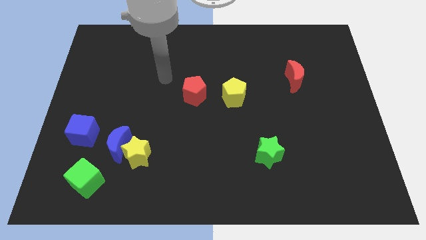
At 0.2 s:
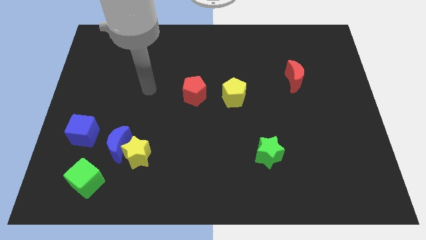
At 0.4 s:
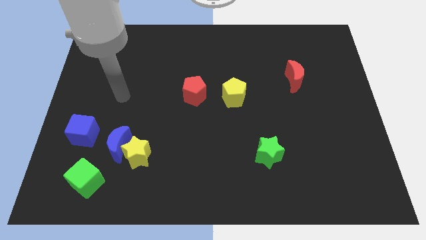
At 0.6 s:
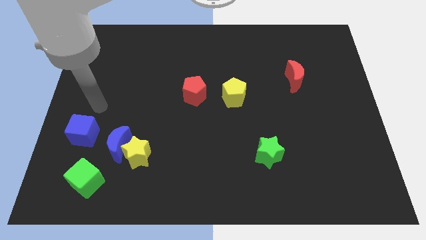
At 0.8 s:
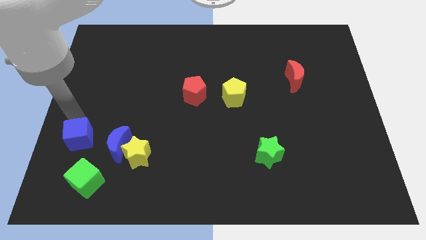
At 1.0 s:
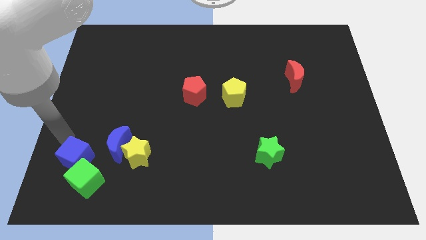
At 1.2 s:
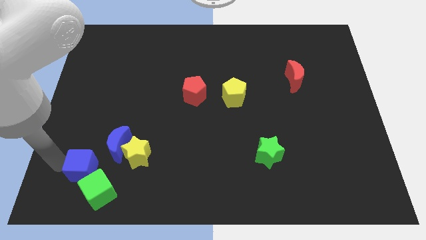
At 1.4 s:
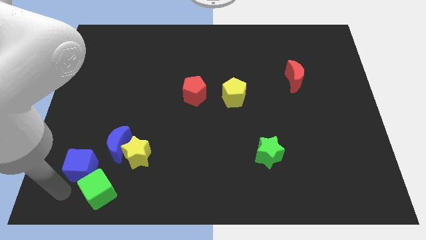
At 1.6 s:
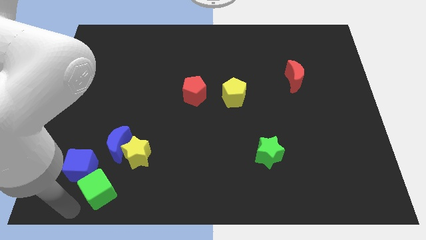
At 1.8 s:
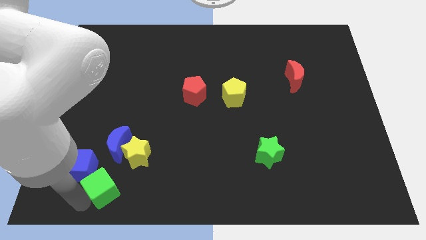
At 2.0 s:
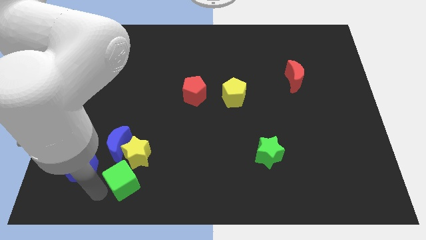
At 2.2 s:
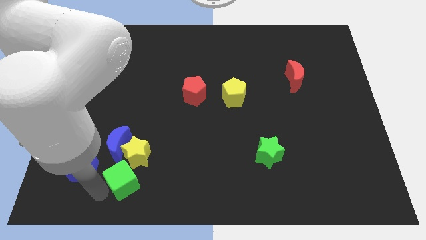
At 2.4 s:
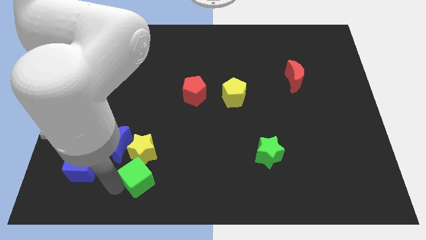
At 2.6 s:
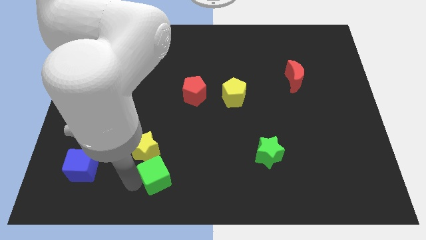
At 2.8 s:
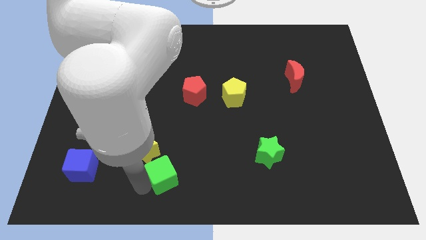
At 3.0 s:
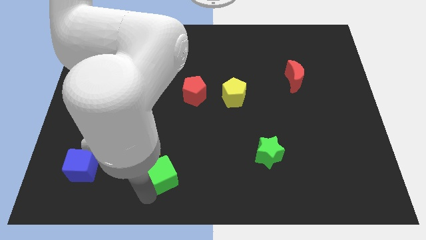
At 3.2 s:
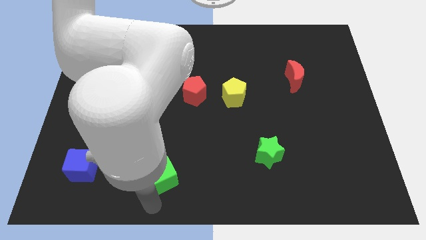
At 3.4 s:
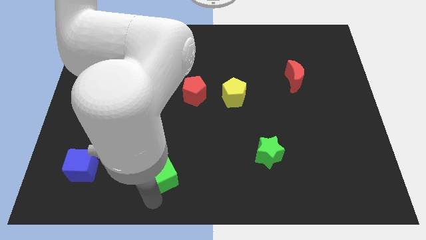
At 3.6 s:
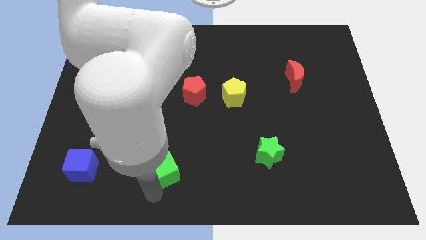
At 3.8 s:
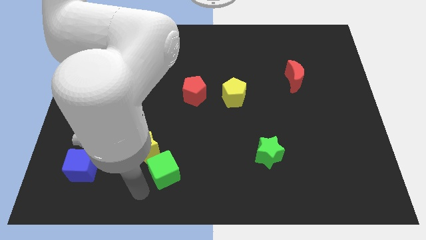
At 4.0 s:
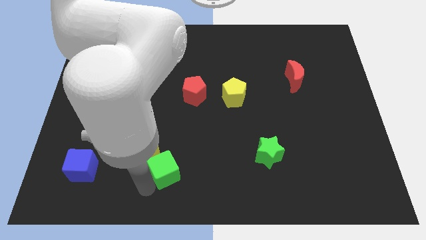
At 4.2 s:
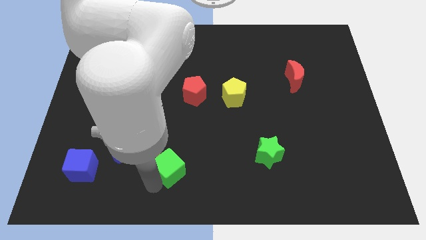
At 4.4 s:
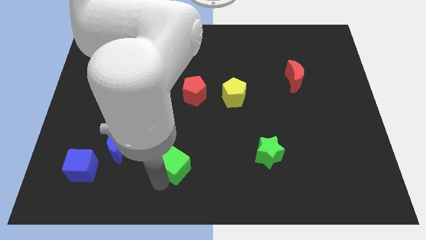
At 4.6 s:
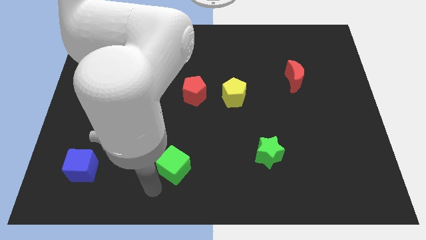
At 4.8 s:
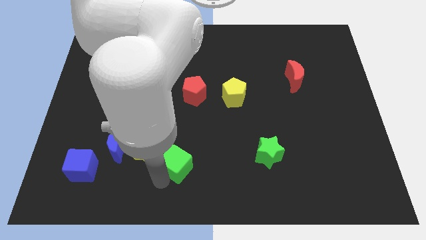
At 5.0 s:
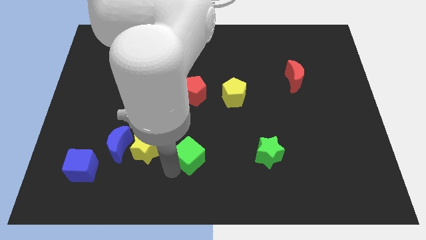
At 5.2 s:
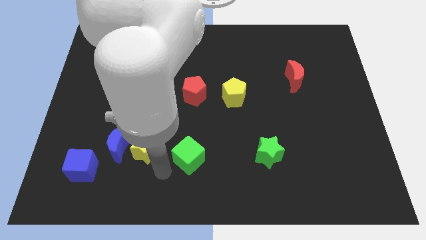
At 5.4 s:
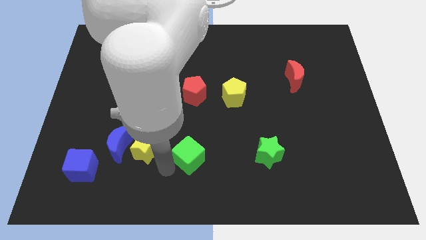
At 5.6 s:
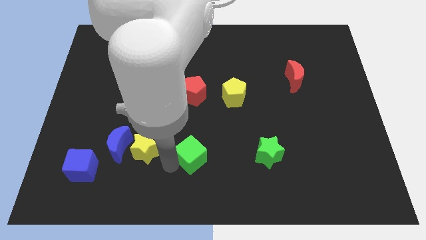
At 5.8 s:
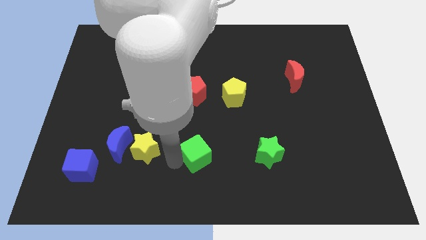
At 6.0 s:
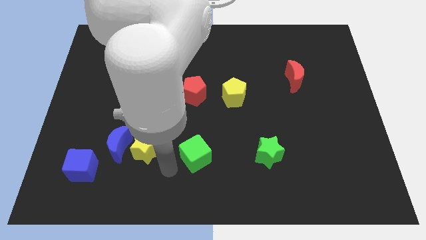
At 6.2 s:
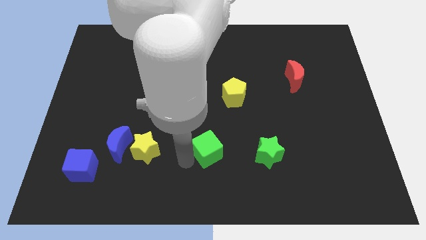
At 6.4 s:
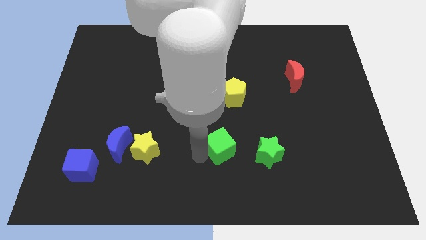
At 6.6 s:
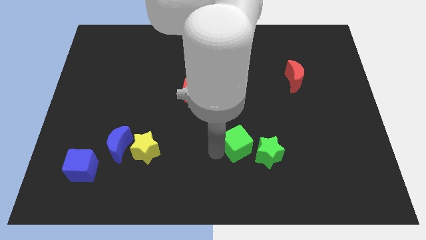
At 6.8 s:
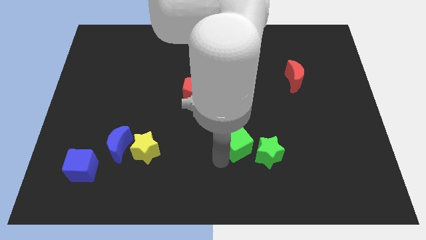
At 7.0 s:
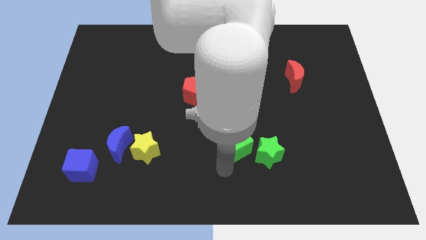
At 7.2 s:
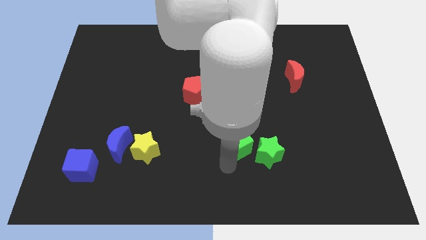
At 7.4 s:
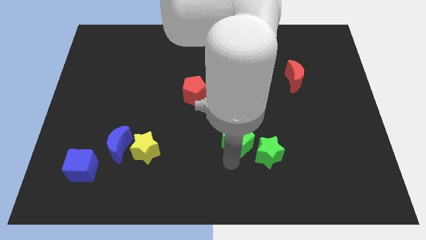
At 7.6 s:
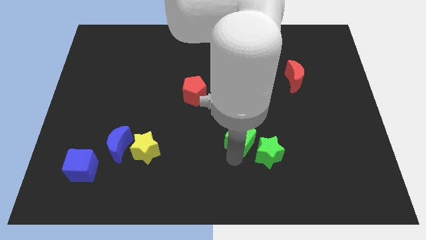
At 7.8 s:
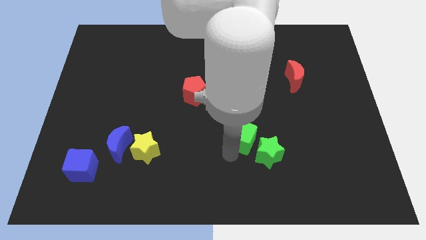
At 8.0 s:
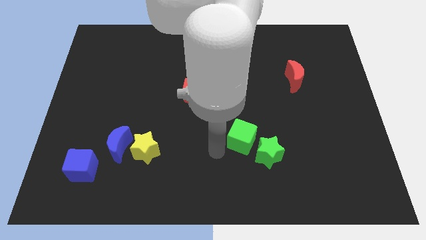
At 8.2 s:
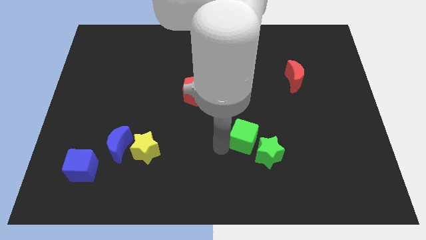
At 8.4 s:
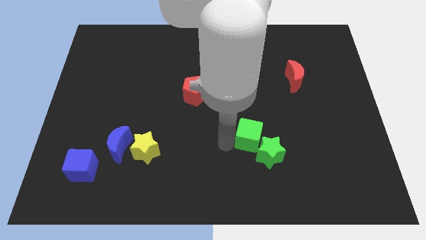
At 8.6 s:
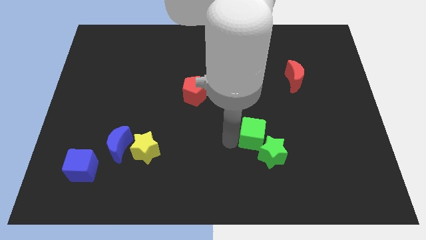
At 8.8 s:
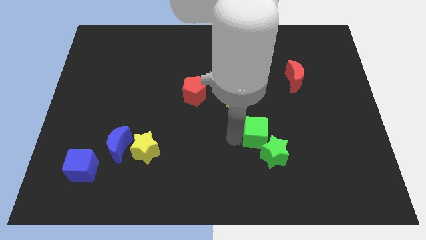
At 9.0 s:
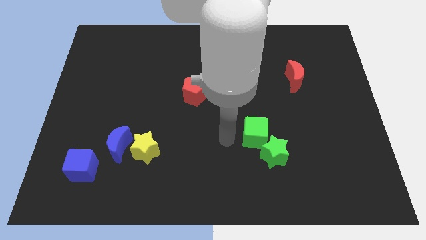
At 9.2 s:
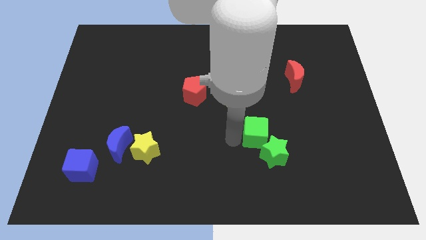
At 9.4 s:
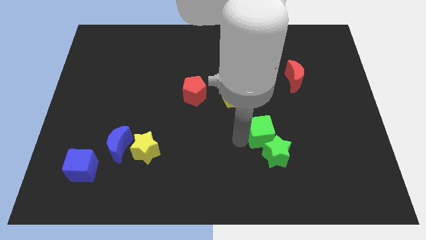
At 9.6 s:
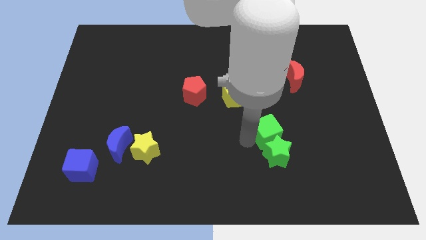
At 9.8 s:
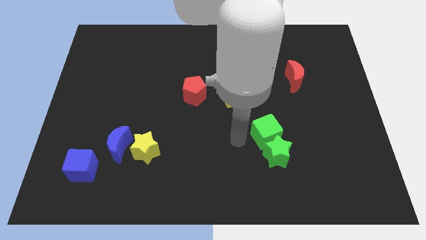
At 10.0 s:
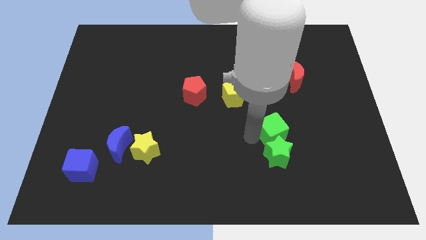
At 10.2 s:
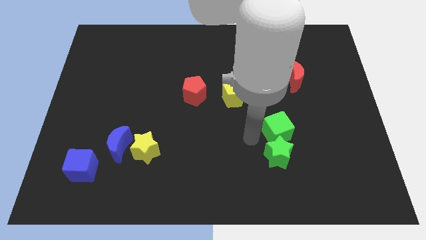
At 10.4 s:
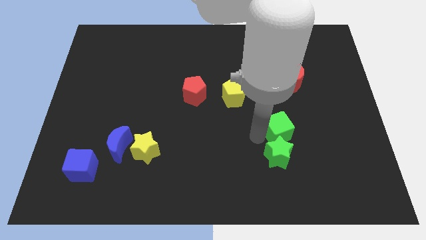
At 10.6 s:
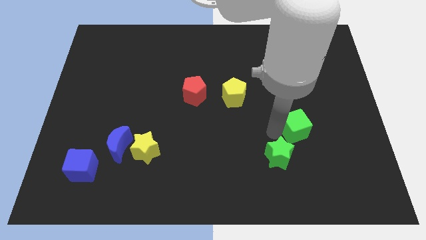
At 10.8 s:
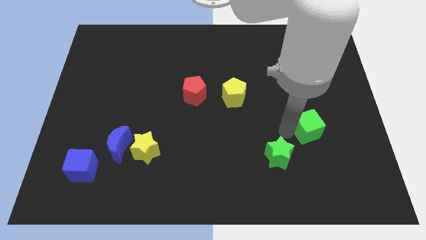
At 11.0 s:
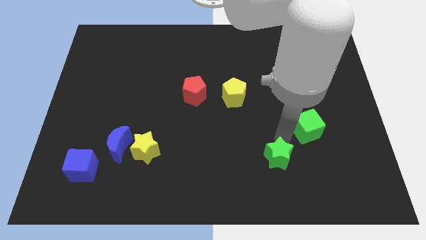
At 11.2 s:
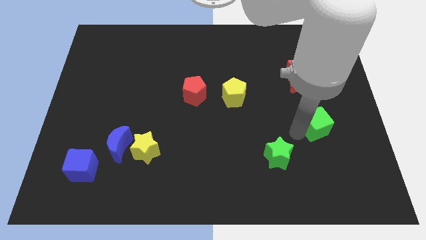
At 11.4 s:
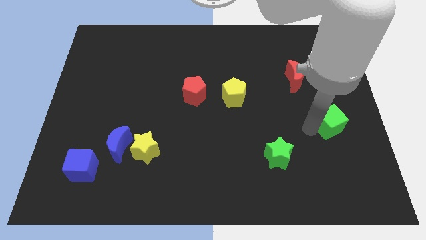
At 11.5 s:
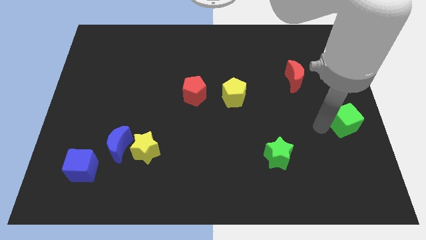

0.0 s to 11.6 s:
slide the green cube to the right side of the board

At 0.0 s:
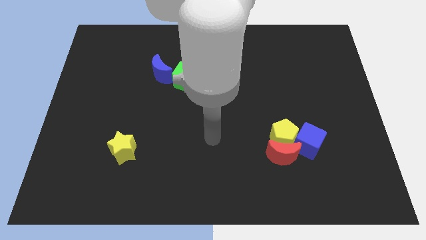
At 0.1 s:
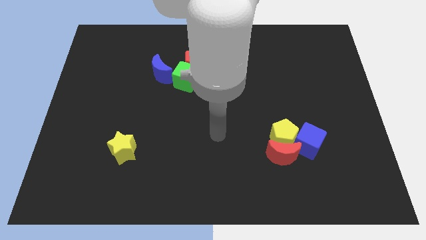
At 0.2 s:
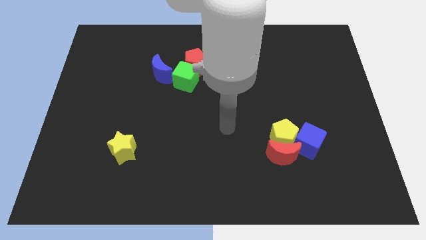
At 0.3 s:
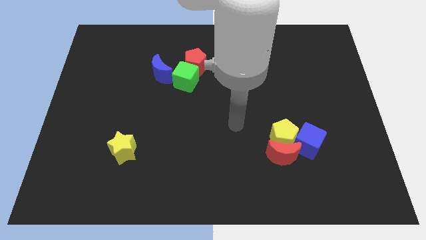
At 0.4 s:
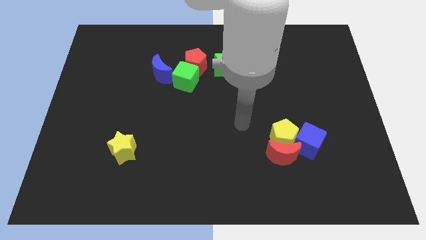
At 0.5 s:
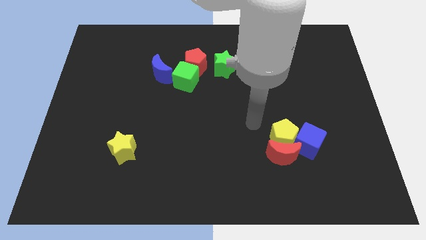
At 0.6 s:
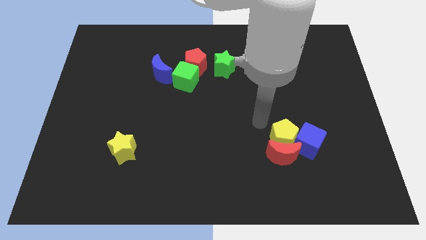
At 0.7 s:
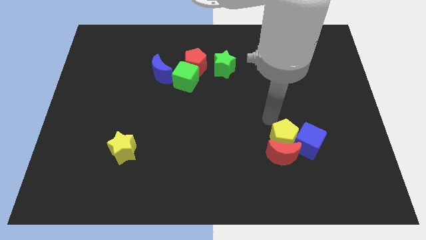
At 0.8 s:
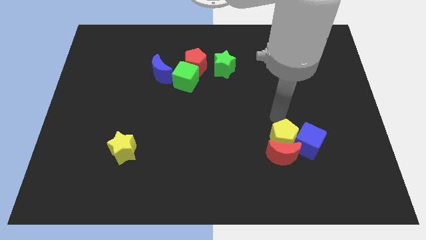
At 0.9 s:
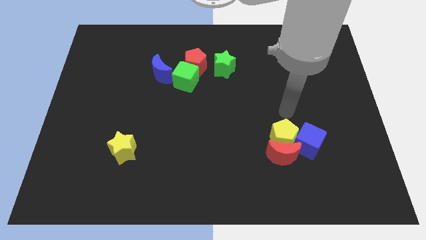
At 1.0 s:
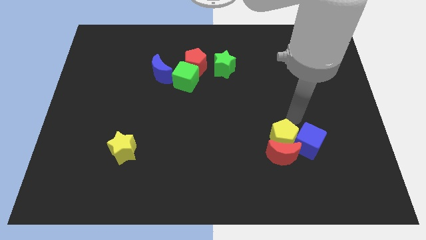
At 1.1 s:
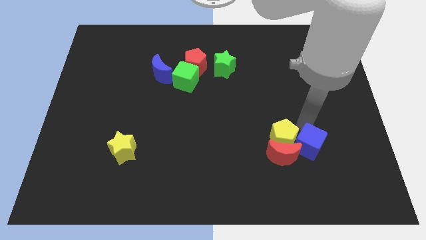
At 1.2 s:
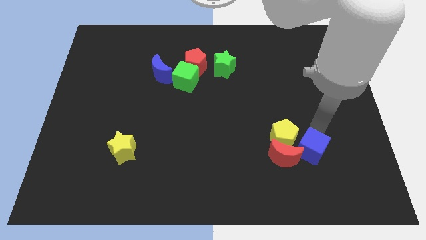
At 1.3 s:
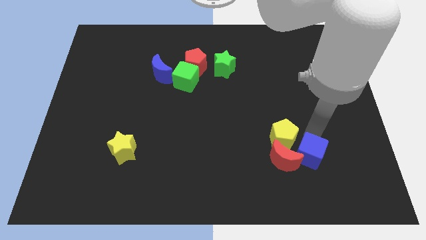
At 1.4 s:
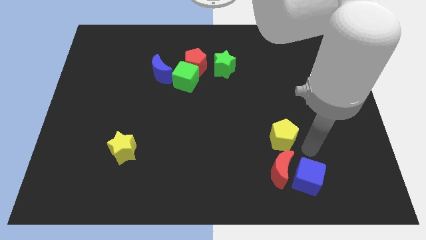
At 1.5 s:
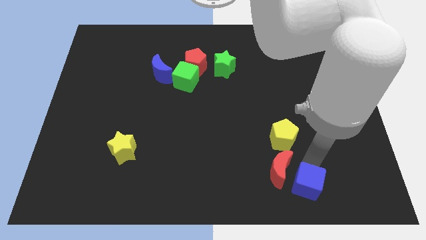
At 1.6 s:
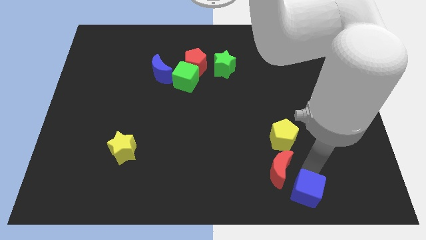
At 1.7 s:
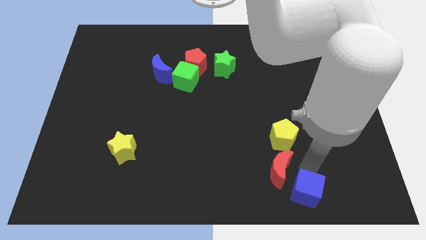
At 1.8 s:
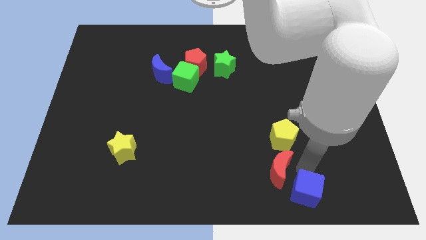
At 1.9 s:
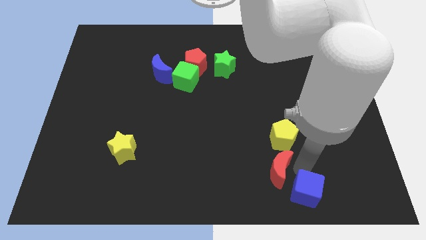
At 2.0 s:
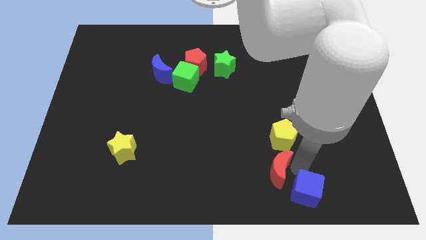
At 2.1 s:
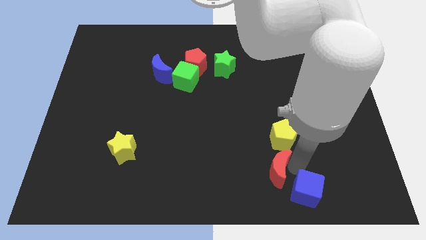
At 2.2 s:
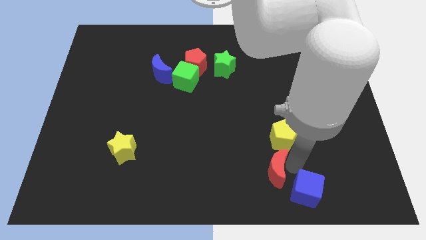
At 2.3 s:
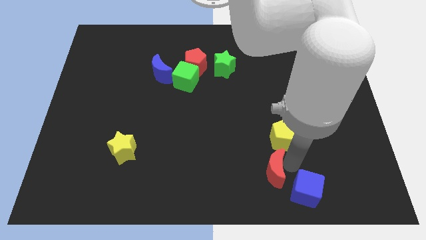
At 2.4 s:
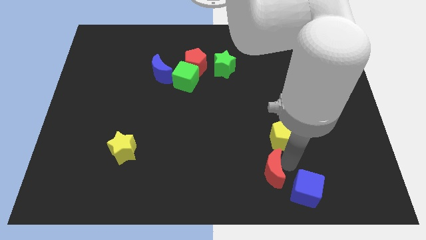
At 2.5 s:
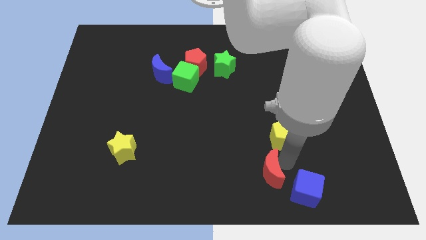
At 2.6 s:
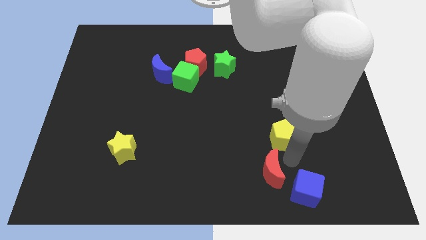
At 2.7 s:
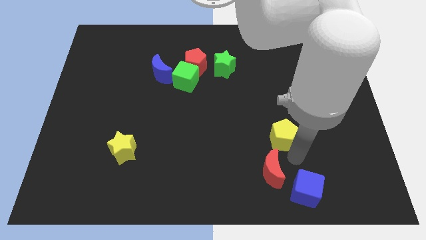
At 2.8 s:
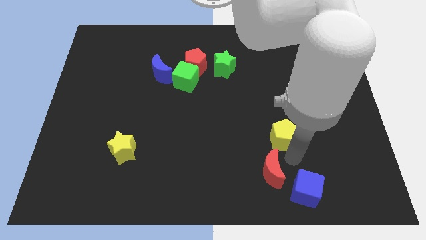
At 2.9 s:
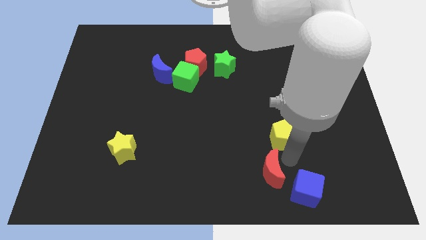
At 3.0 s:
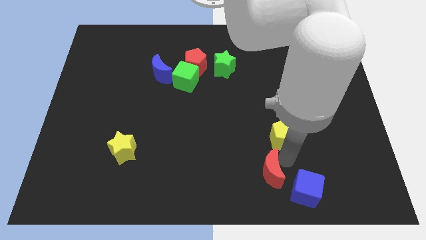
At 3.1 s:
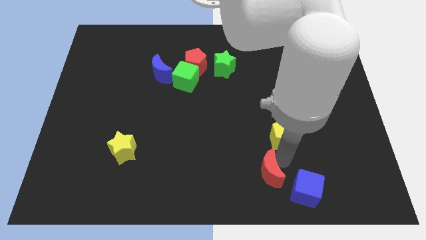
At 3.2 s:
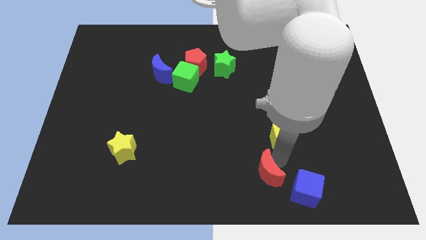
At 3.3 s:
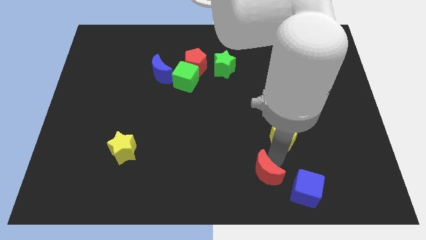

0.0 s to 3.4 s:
push the red moon to the bottom
